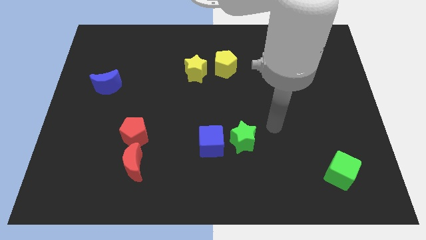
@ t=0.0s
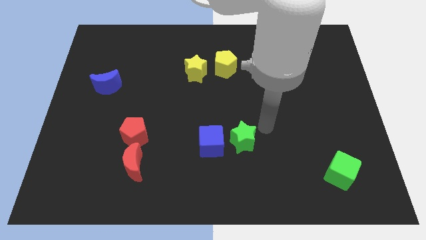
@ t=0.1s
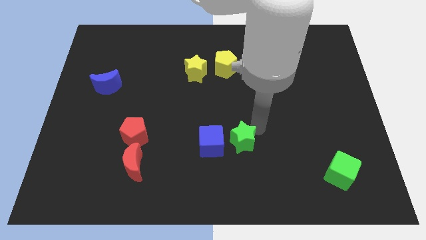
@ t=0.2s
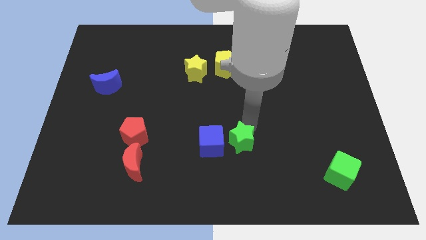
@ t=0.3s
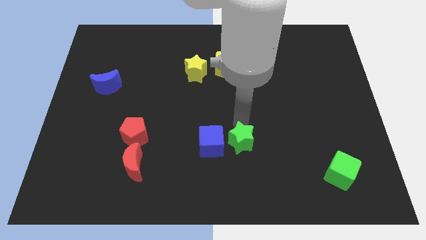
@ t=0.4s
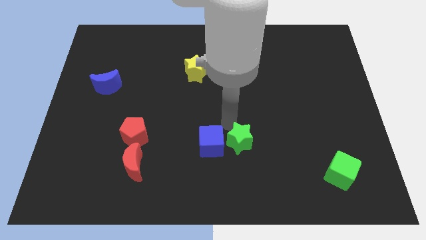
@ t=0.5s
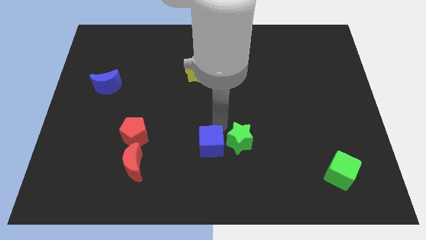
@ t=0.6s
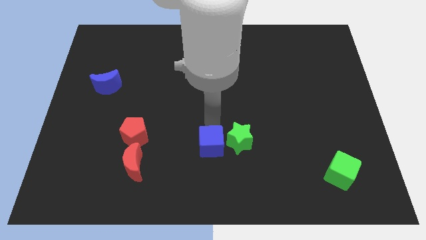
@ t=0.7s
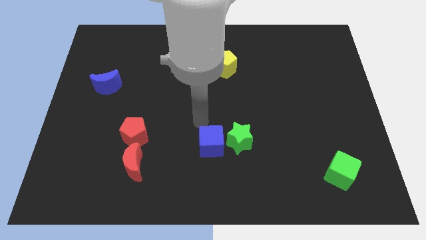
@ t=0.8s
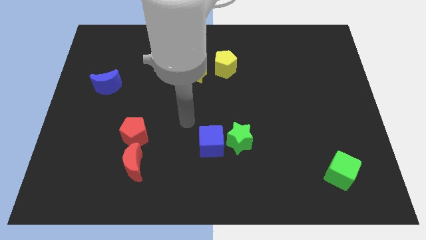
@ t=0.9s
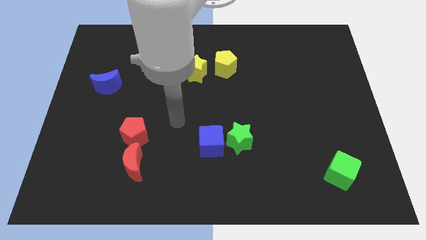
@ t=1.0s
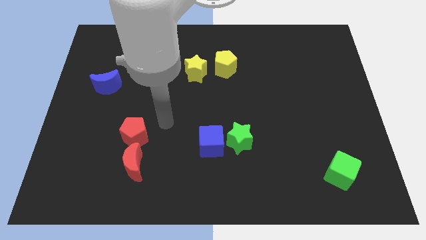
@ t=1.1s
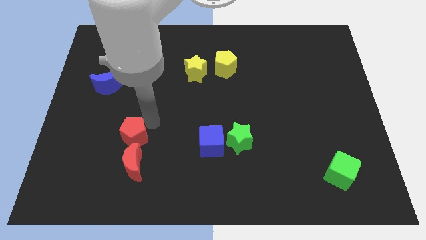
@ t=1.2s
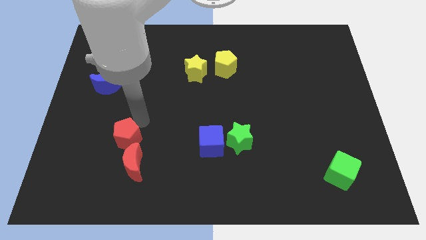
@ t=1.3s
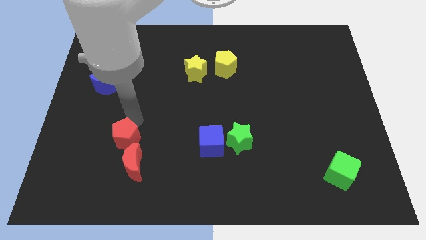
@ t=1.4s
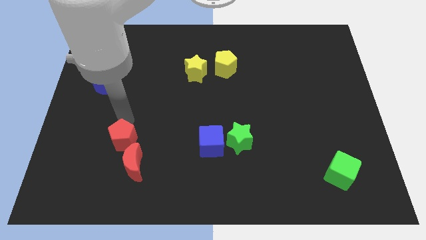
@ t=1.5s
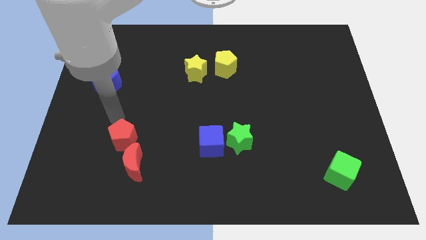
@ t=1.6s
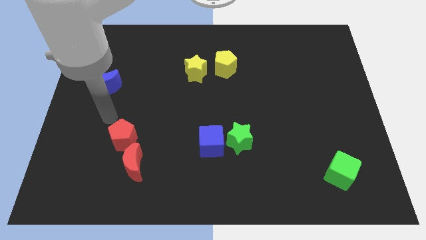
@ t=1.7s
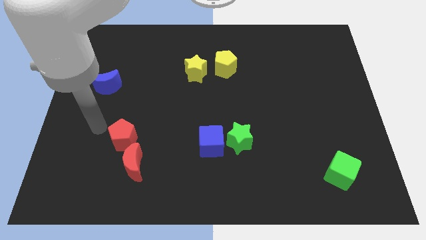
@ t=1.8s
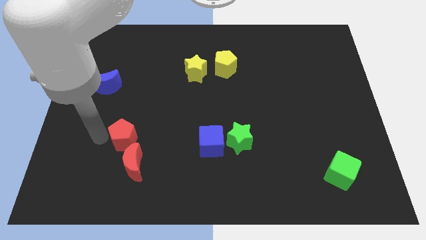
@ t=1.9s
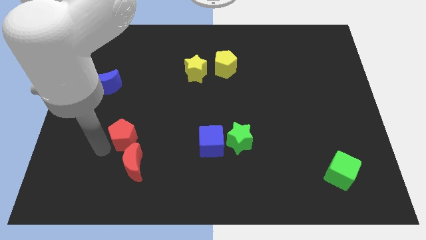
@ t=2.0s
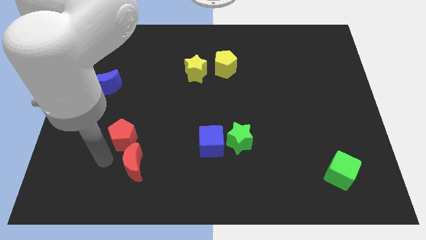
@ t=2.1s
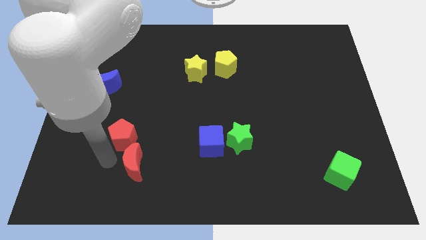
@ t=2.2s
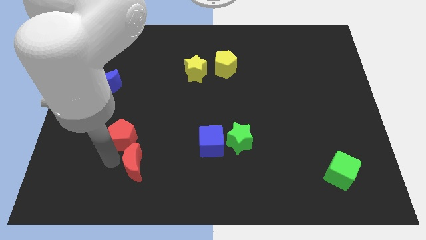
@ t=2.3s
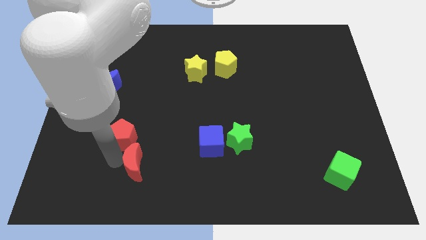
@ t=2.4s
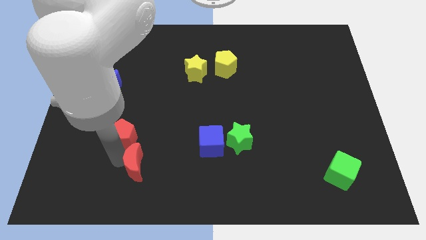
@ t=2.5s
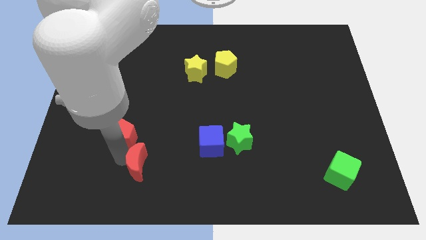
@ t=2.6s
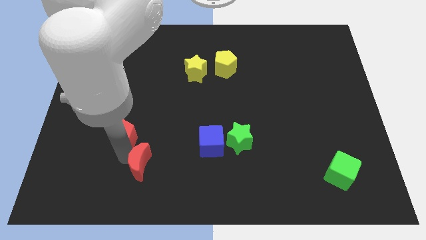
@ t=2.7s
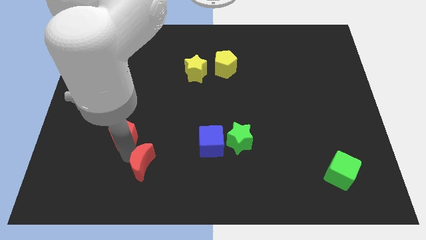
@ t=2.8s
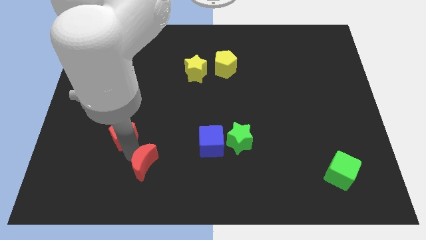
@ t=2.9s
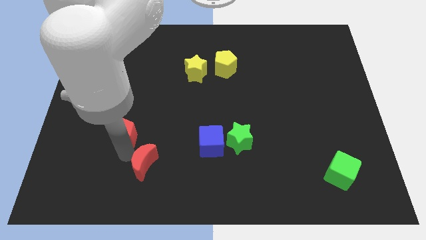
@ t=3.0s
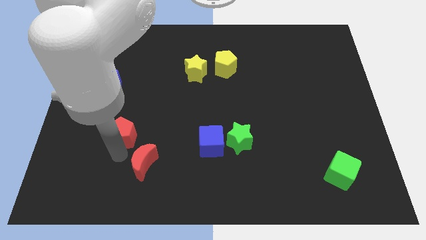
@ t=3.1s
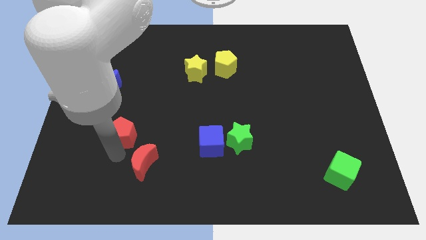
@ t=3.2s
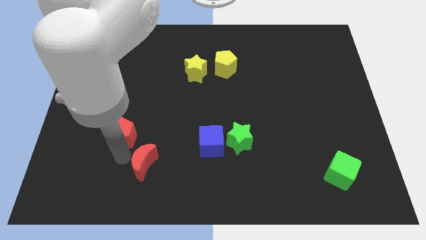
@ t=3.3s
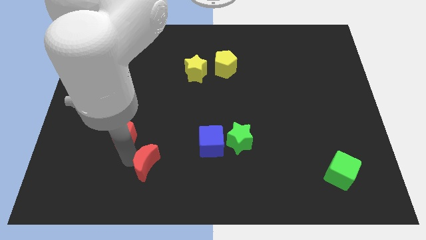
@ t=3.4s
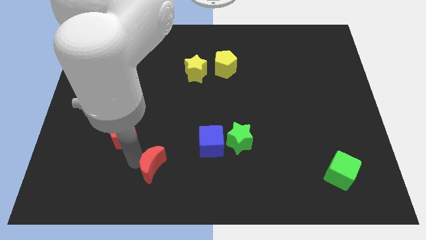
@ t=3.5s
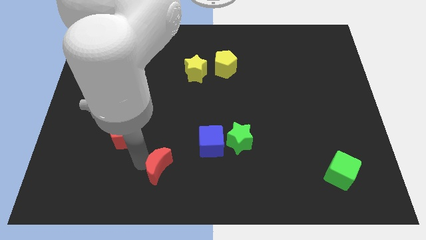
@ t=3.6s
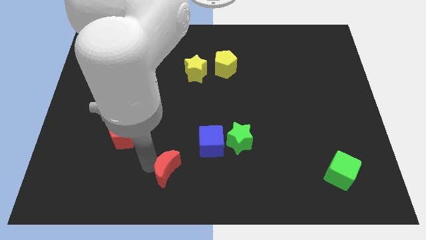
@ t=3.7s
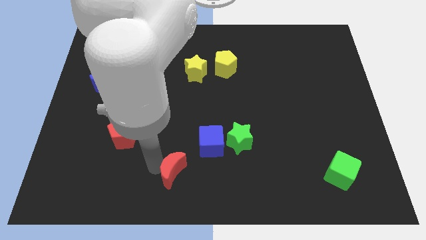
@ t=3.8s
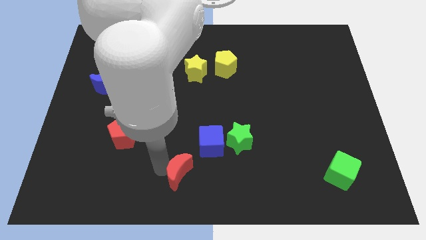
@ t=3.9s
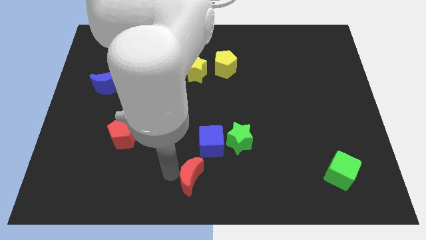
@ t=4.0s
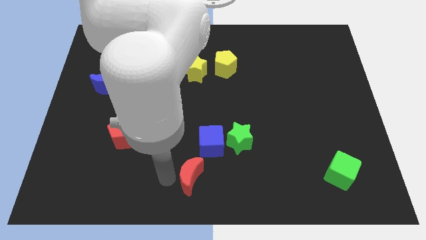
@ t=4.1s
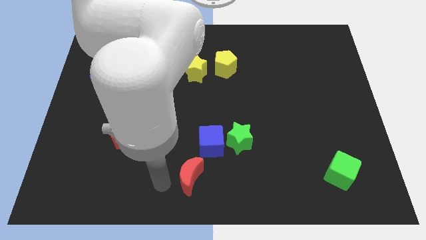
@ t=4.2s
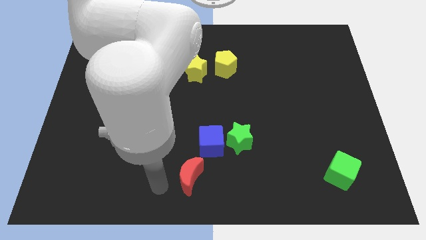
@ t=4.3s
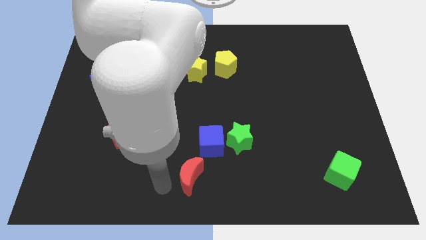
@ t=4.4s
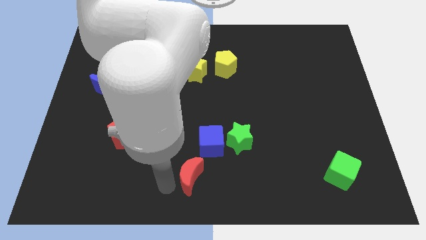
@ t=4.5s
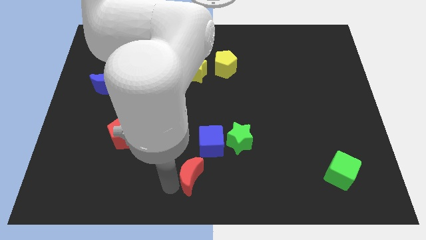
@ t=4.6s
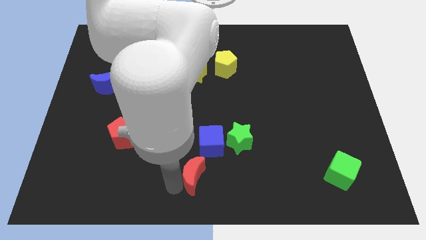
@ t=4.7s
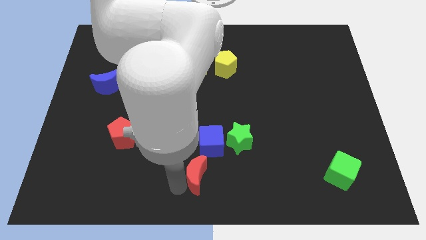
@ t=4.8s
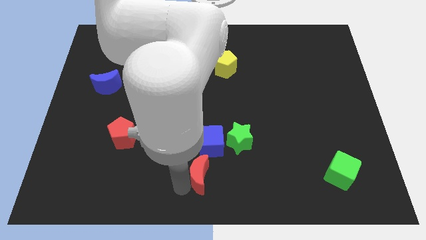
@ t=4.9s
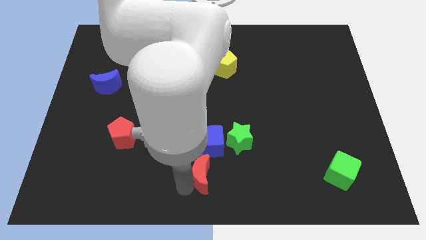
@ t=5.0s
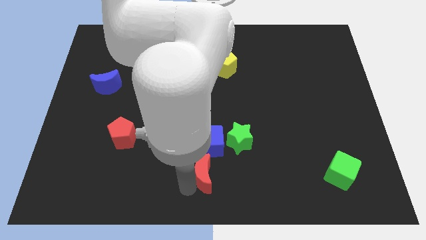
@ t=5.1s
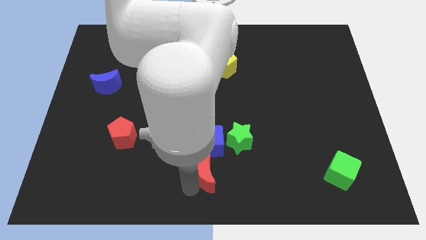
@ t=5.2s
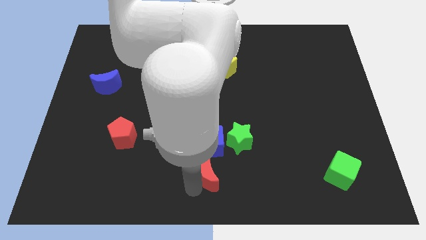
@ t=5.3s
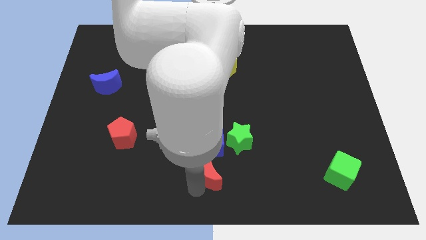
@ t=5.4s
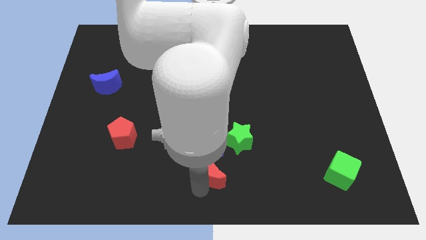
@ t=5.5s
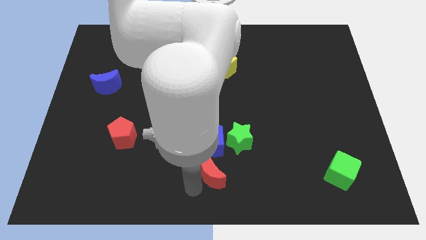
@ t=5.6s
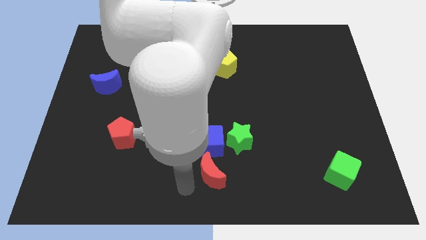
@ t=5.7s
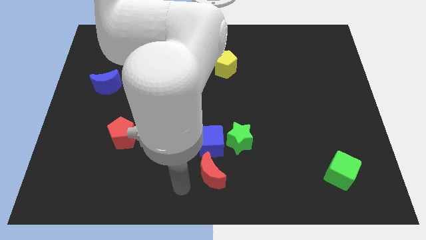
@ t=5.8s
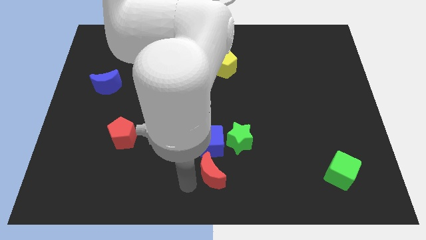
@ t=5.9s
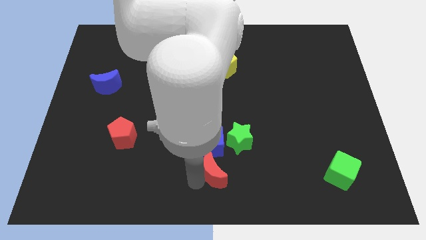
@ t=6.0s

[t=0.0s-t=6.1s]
push the red moon to the bottom right side of the blue cube
